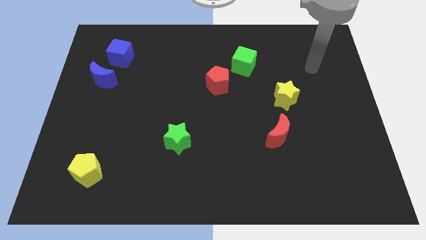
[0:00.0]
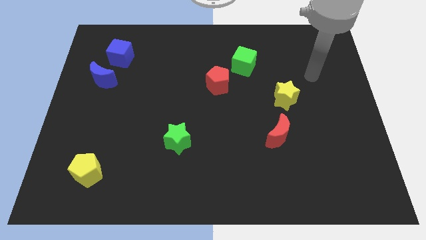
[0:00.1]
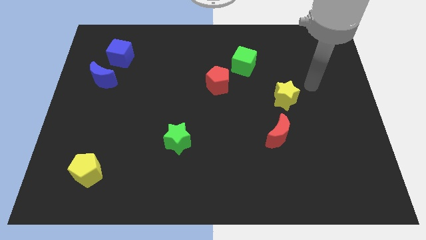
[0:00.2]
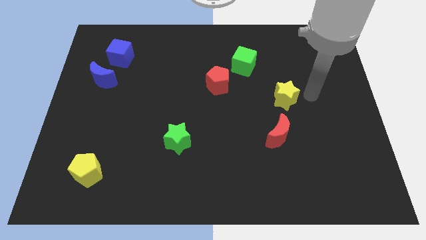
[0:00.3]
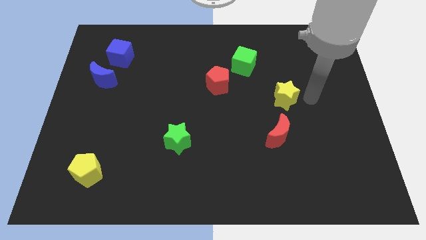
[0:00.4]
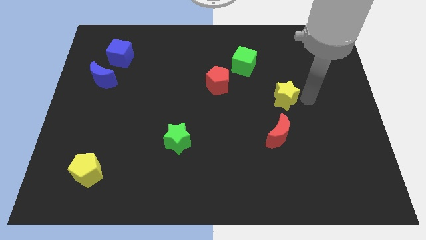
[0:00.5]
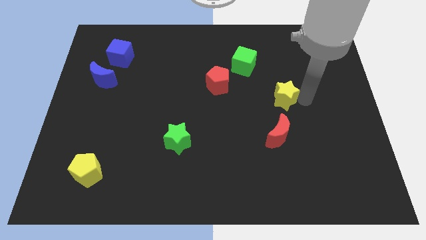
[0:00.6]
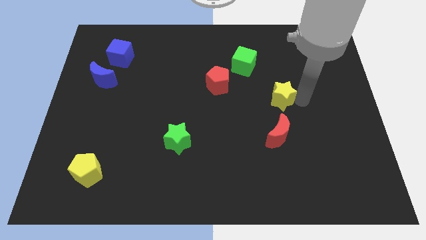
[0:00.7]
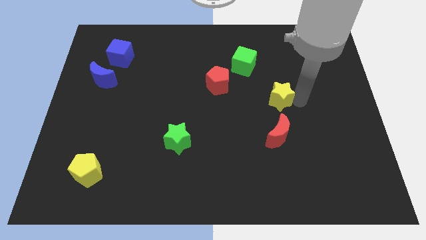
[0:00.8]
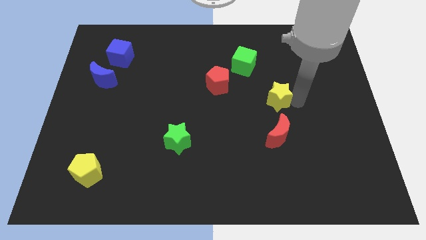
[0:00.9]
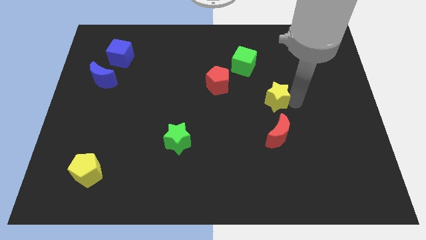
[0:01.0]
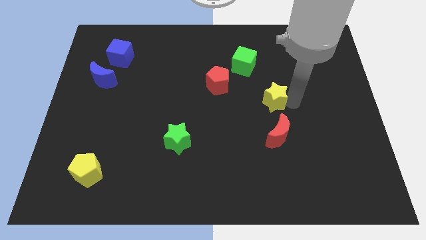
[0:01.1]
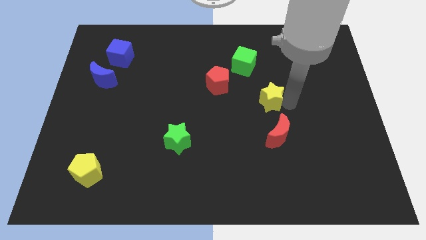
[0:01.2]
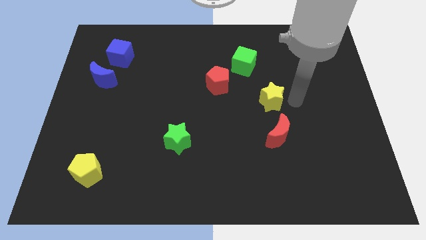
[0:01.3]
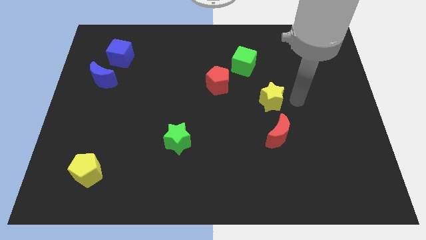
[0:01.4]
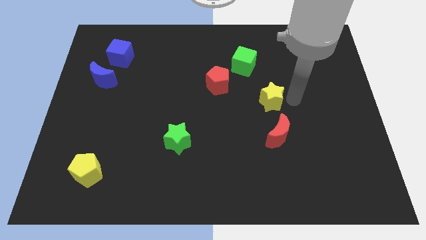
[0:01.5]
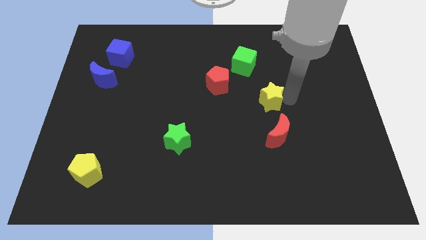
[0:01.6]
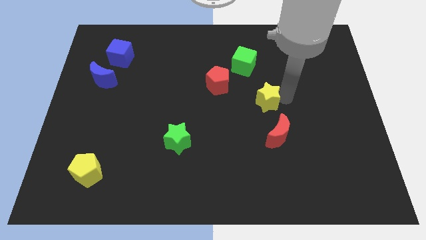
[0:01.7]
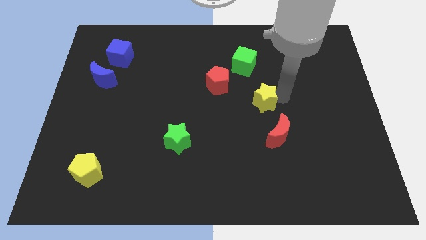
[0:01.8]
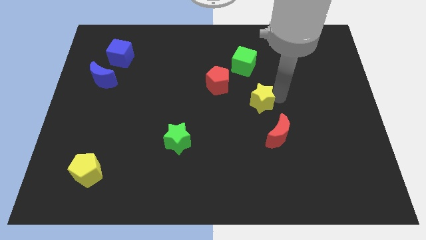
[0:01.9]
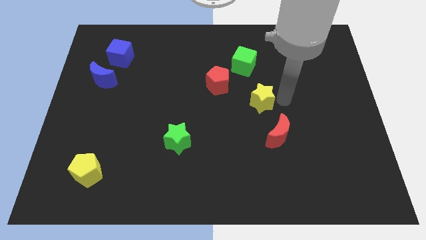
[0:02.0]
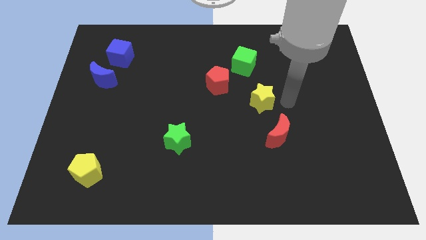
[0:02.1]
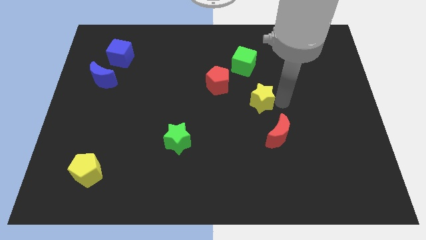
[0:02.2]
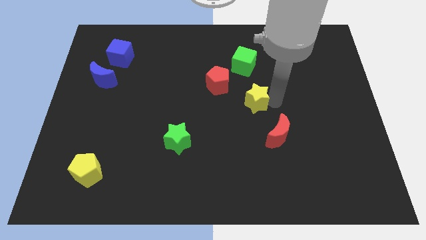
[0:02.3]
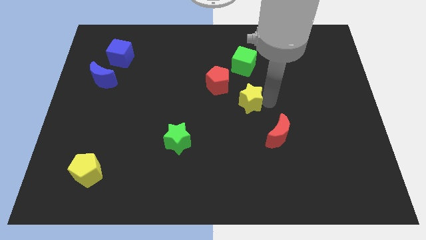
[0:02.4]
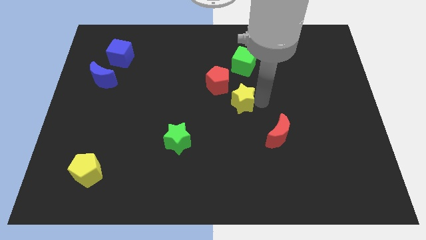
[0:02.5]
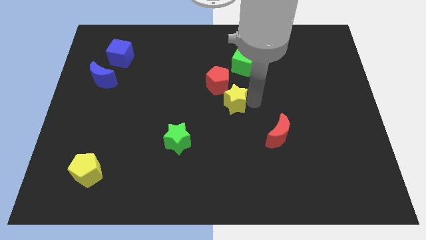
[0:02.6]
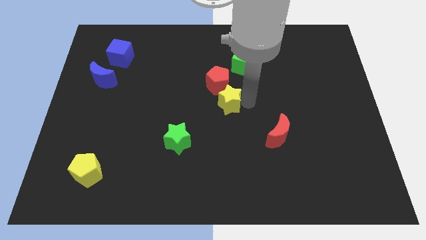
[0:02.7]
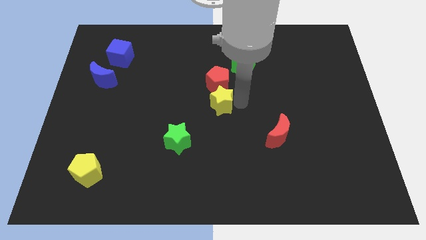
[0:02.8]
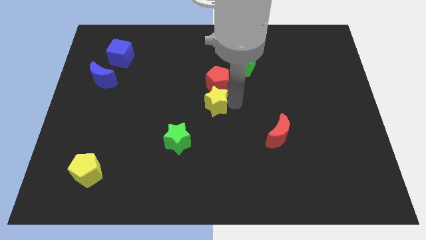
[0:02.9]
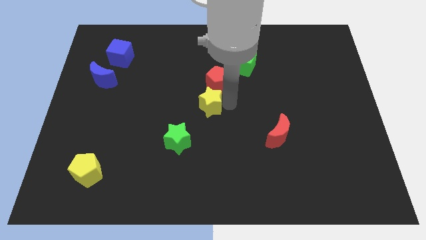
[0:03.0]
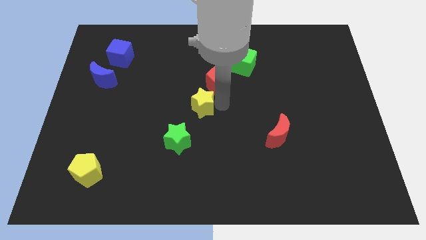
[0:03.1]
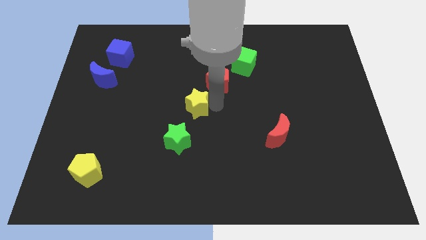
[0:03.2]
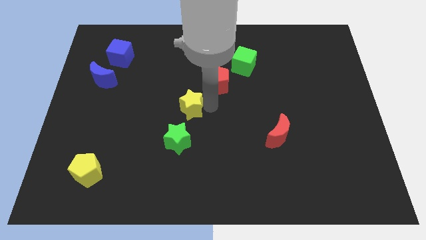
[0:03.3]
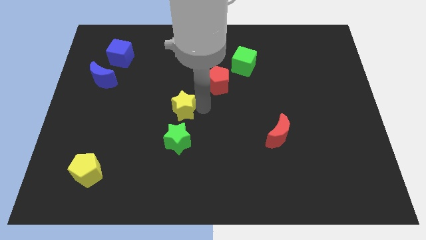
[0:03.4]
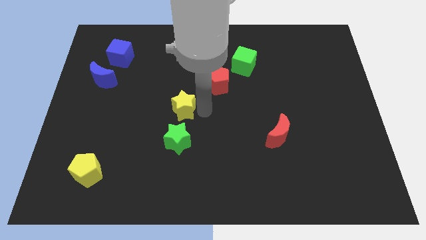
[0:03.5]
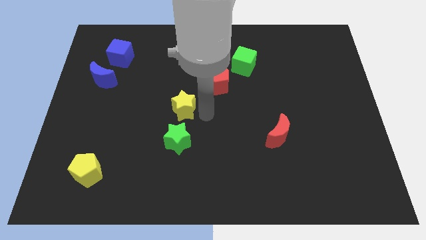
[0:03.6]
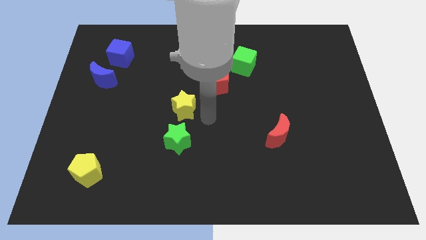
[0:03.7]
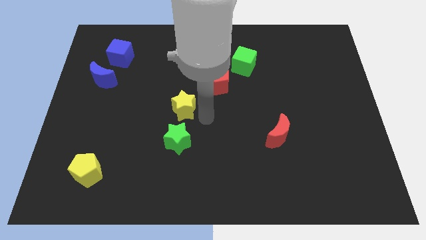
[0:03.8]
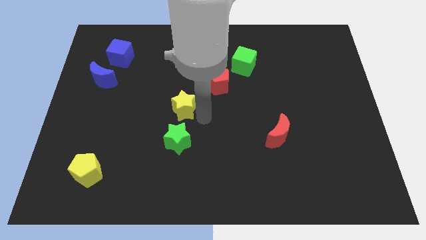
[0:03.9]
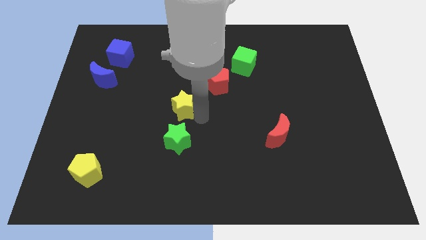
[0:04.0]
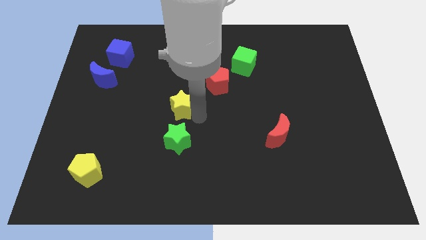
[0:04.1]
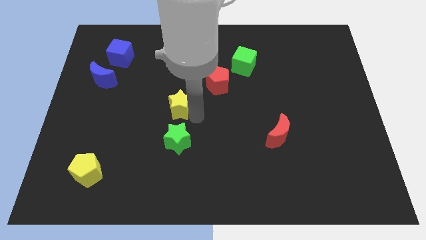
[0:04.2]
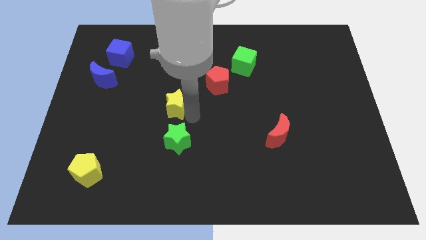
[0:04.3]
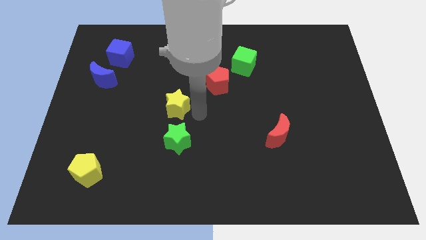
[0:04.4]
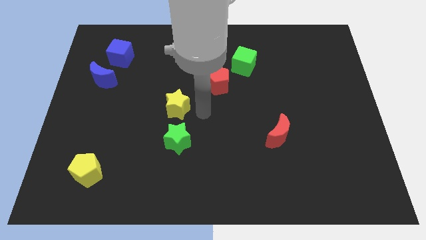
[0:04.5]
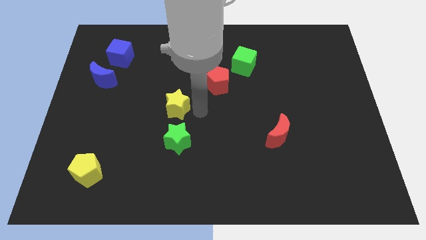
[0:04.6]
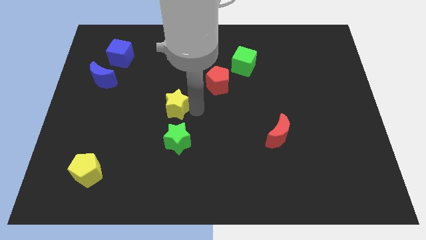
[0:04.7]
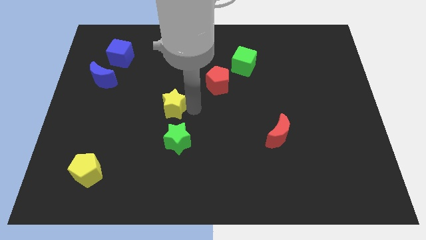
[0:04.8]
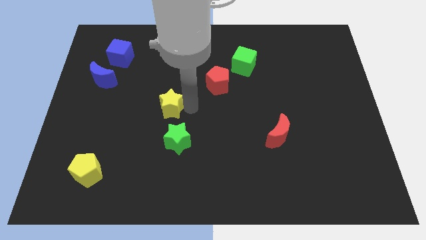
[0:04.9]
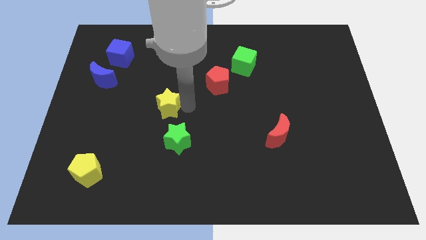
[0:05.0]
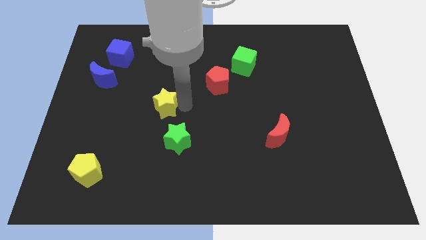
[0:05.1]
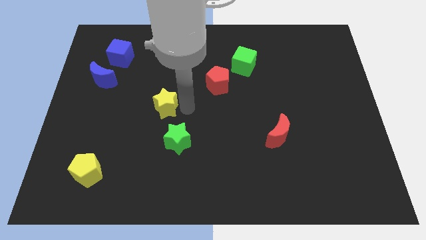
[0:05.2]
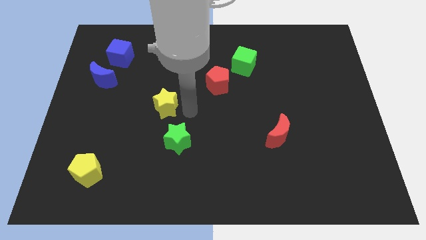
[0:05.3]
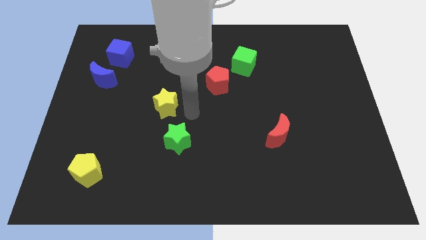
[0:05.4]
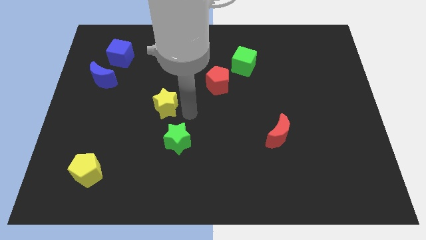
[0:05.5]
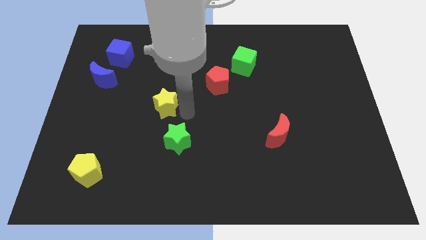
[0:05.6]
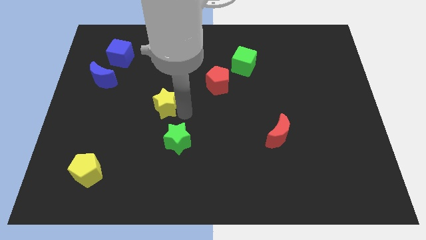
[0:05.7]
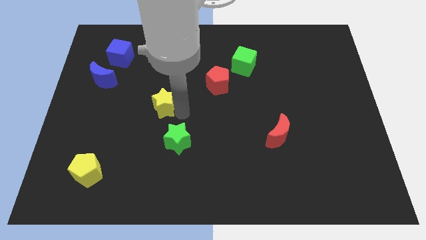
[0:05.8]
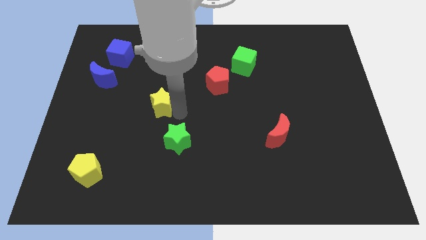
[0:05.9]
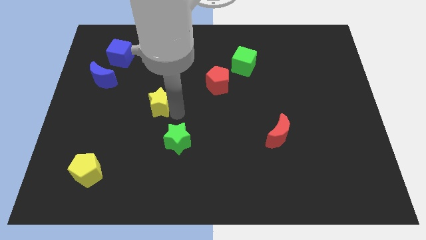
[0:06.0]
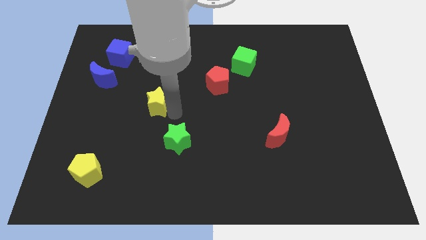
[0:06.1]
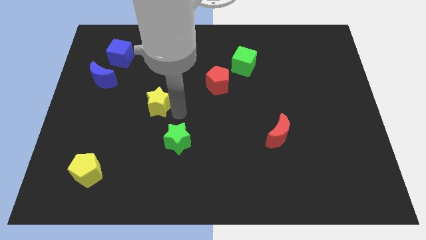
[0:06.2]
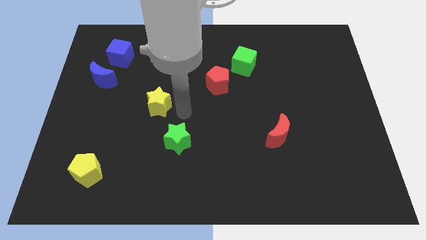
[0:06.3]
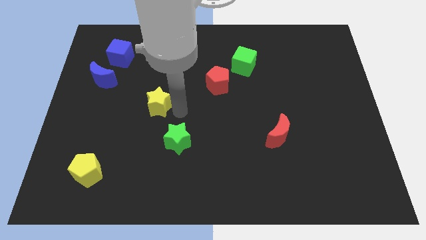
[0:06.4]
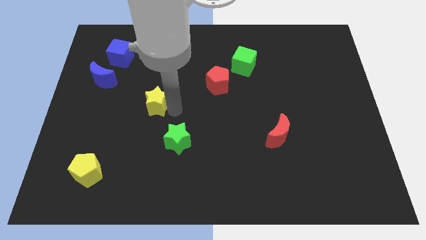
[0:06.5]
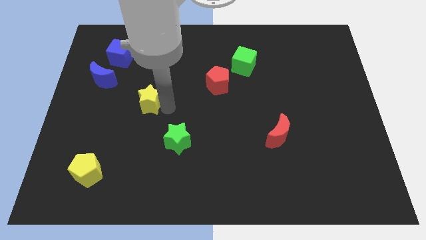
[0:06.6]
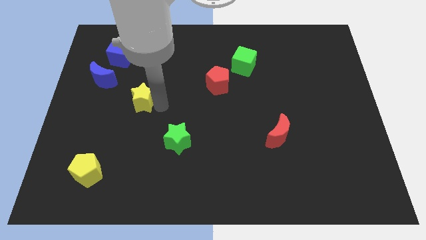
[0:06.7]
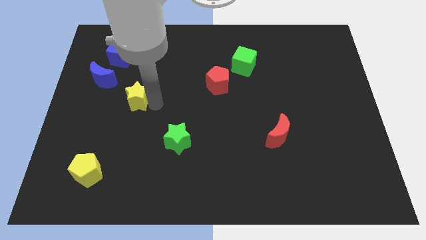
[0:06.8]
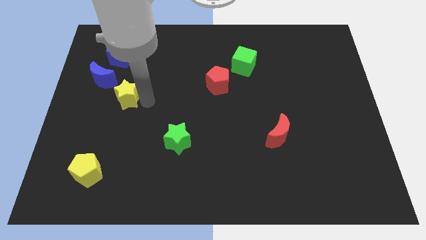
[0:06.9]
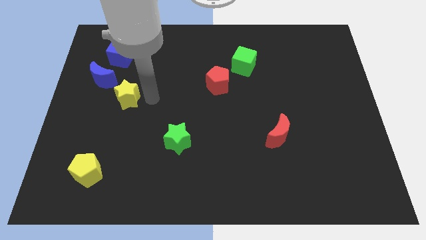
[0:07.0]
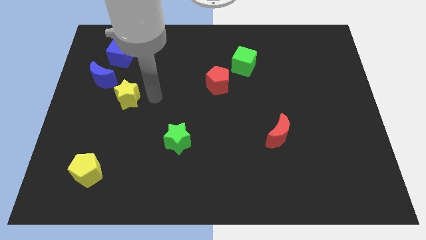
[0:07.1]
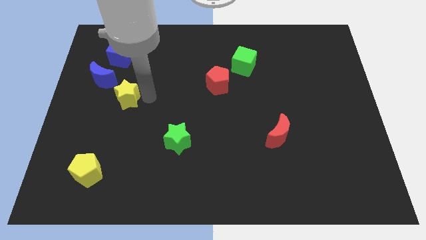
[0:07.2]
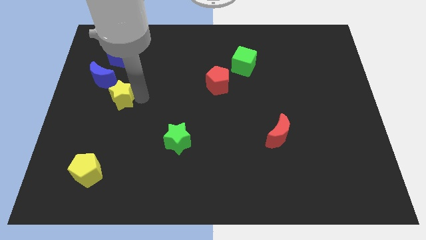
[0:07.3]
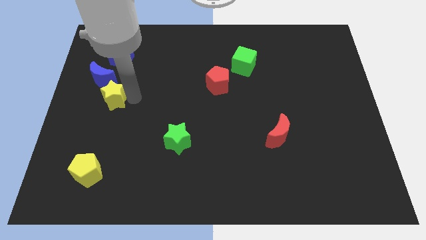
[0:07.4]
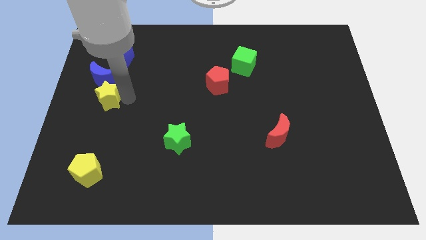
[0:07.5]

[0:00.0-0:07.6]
push the yellow star to the left side
